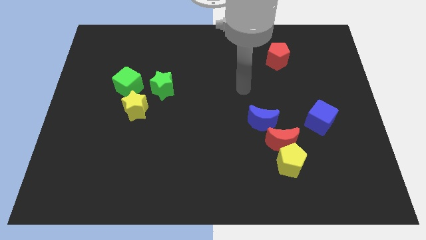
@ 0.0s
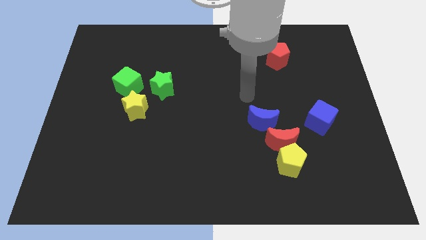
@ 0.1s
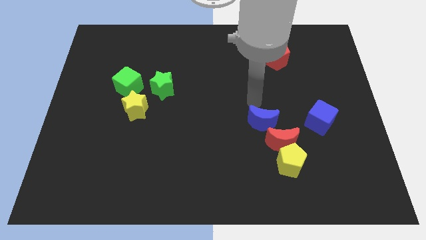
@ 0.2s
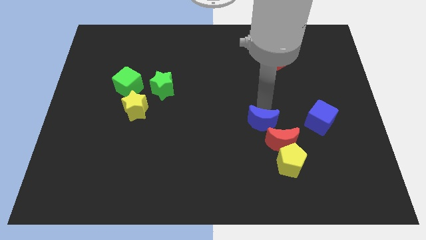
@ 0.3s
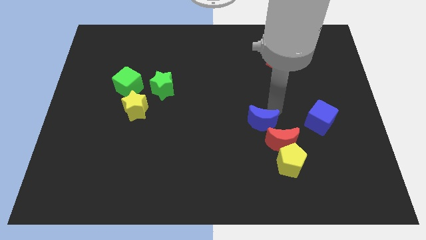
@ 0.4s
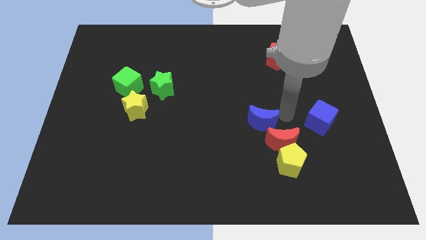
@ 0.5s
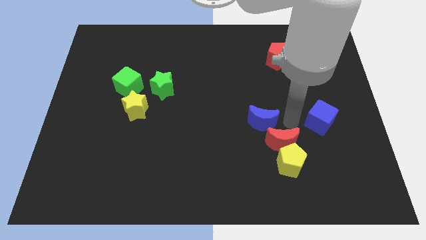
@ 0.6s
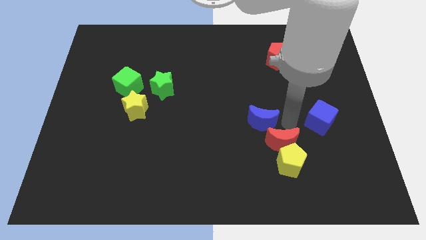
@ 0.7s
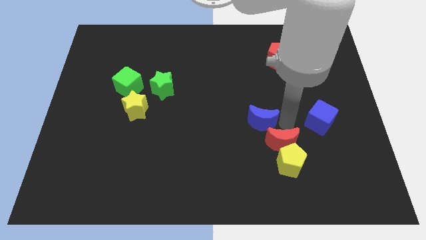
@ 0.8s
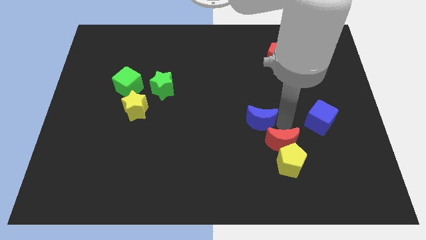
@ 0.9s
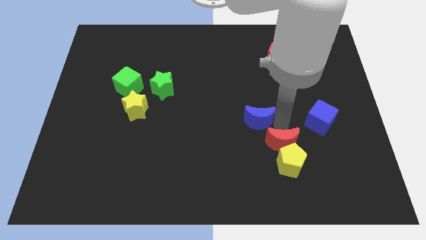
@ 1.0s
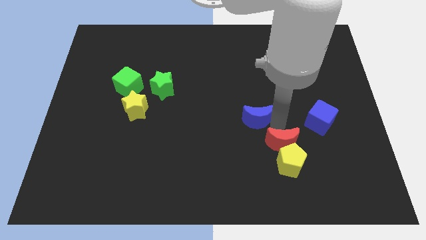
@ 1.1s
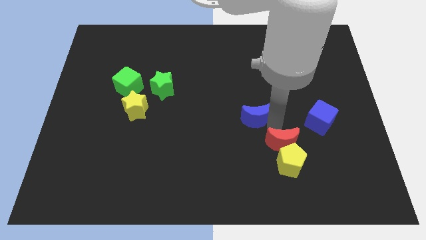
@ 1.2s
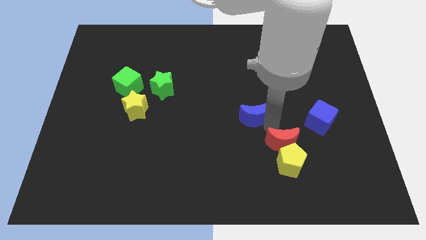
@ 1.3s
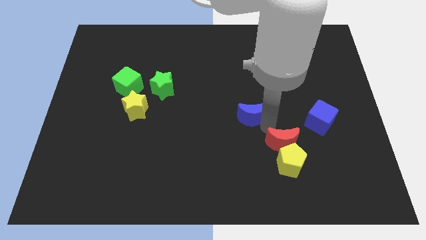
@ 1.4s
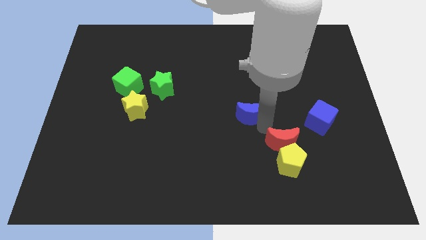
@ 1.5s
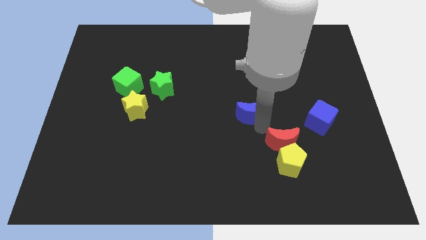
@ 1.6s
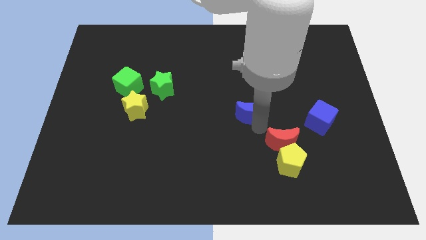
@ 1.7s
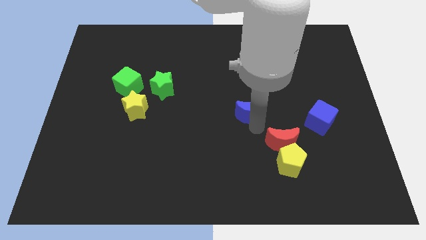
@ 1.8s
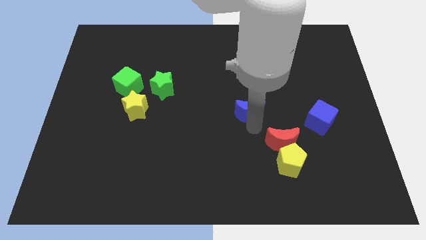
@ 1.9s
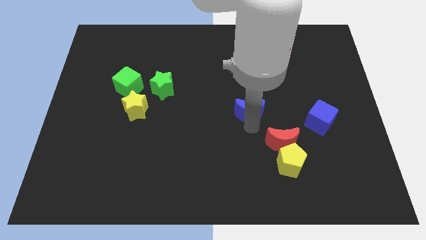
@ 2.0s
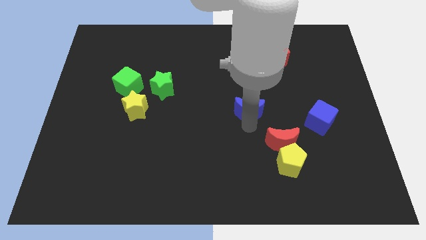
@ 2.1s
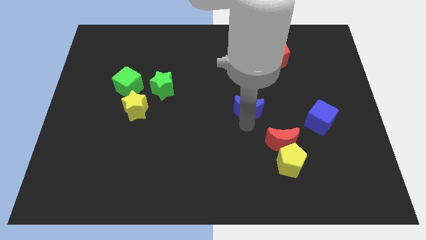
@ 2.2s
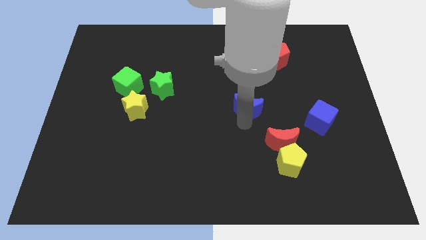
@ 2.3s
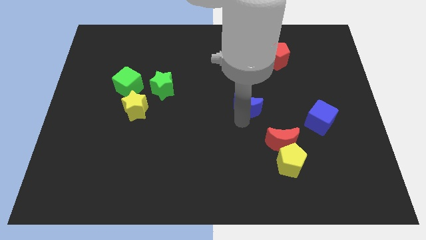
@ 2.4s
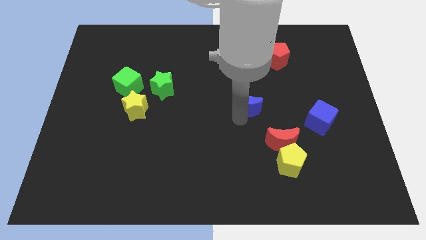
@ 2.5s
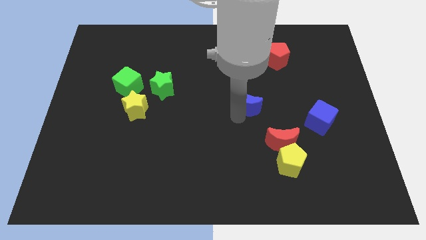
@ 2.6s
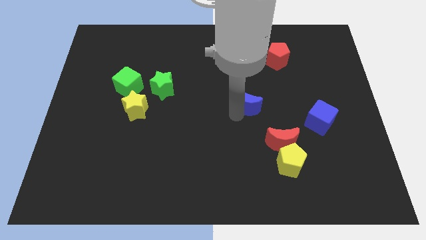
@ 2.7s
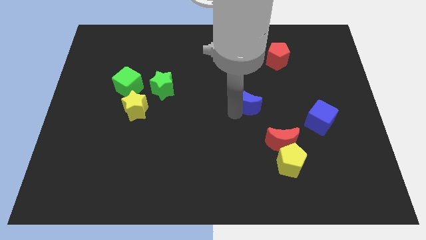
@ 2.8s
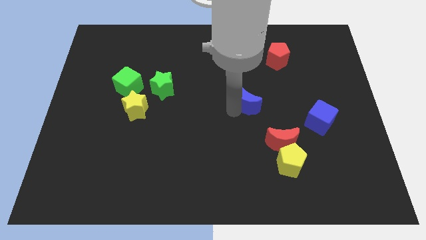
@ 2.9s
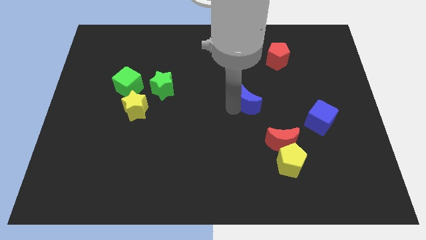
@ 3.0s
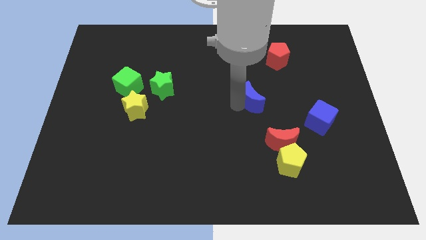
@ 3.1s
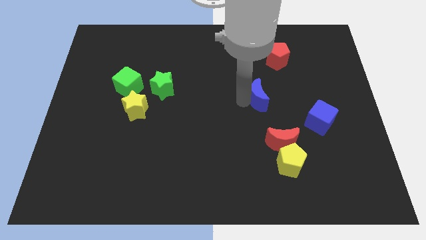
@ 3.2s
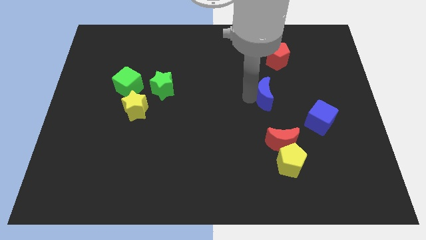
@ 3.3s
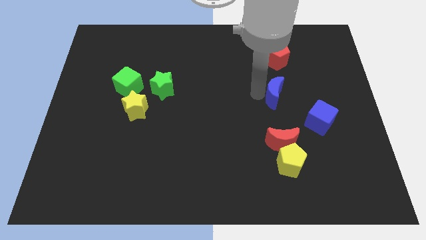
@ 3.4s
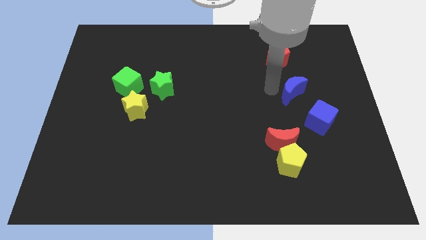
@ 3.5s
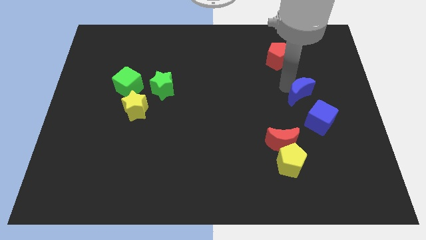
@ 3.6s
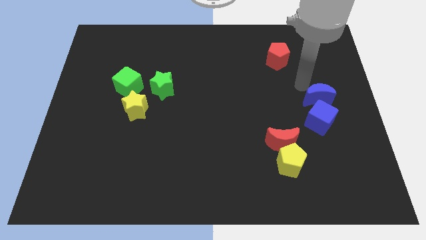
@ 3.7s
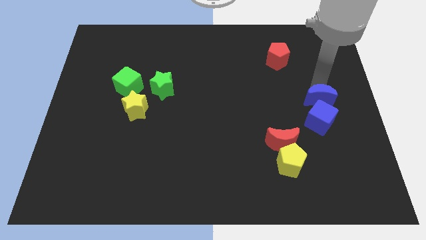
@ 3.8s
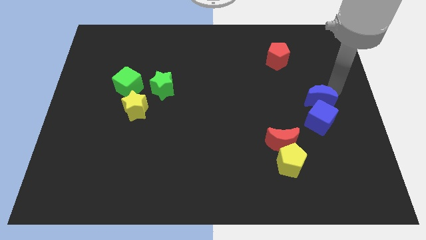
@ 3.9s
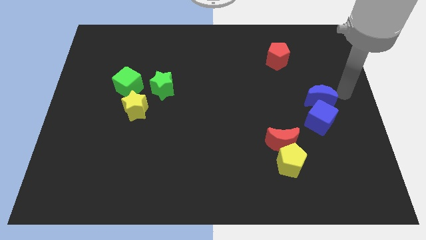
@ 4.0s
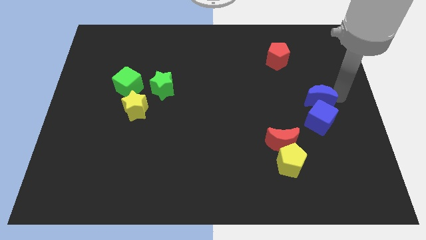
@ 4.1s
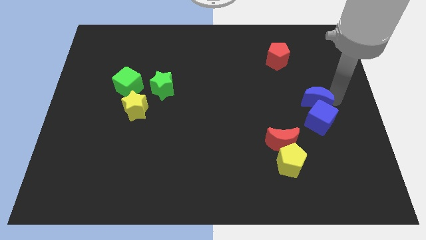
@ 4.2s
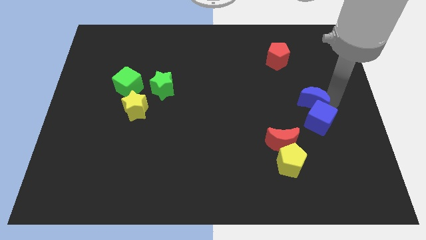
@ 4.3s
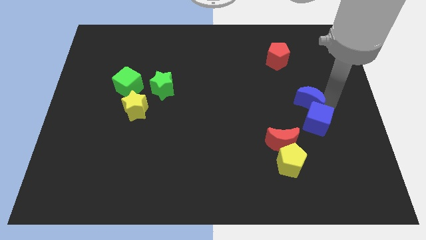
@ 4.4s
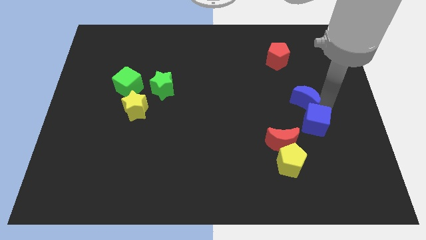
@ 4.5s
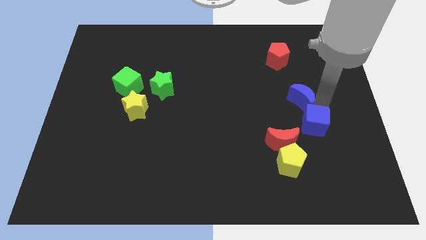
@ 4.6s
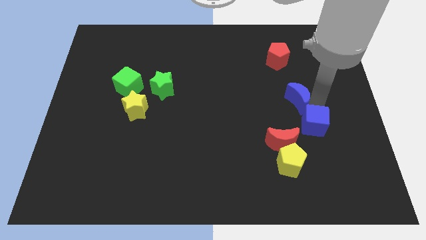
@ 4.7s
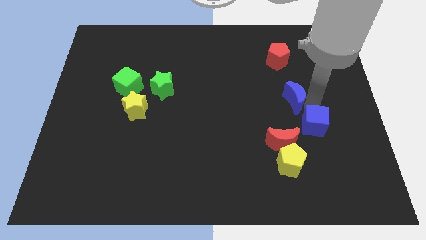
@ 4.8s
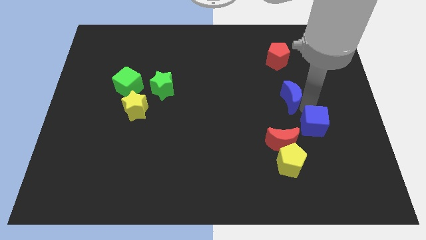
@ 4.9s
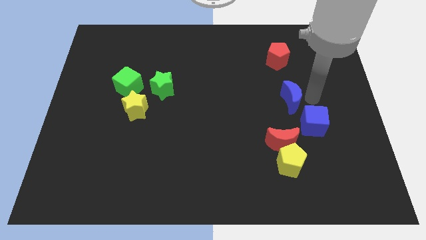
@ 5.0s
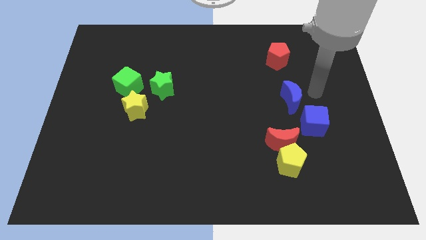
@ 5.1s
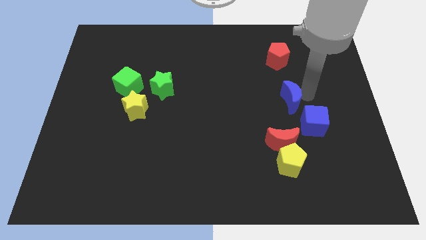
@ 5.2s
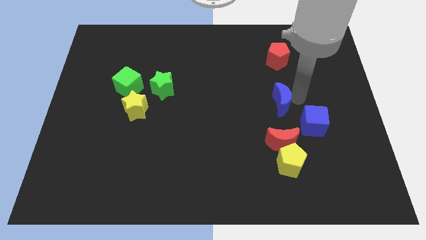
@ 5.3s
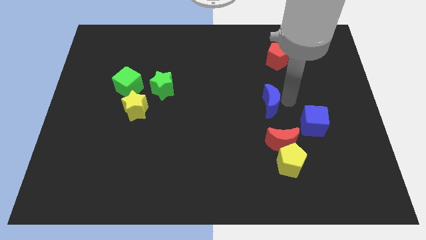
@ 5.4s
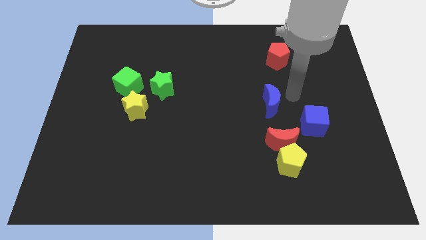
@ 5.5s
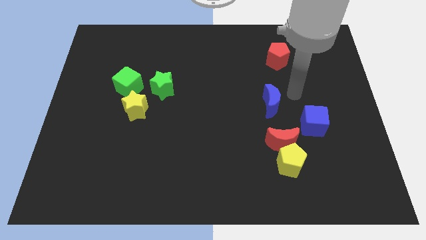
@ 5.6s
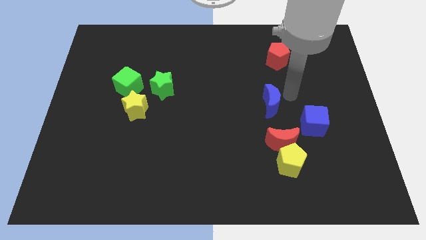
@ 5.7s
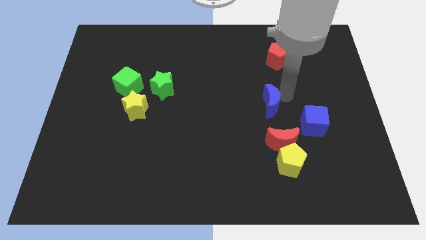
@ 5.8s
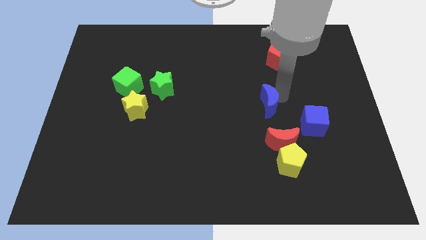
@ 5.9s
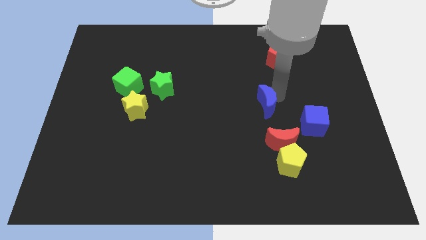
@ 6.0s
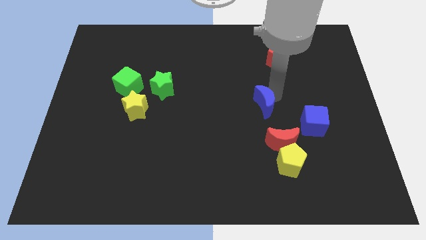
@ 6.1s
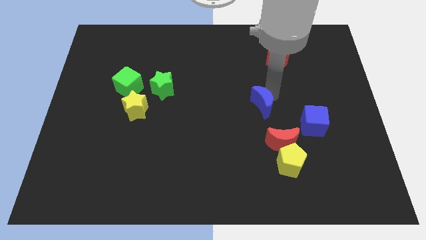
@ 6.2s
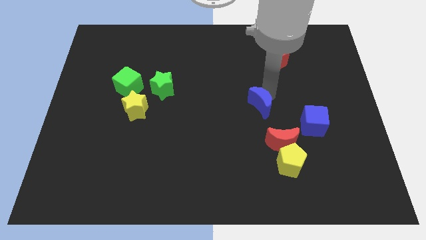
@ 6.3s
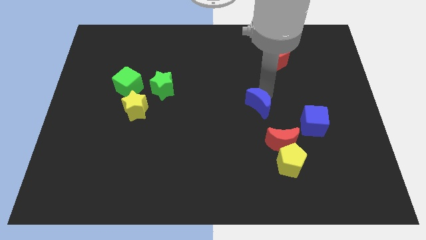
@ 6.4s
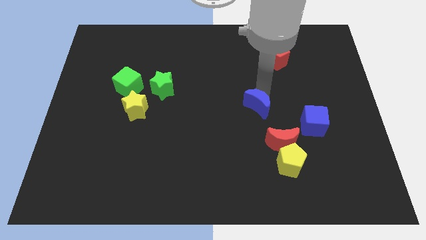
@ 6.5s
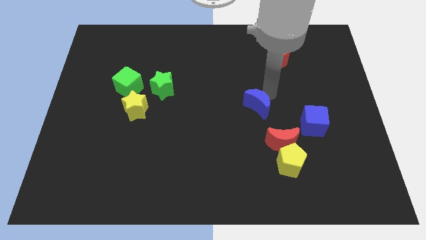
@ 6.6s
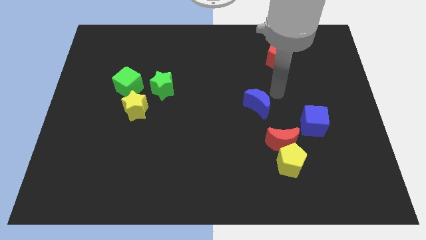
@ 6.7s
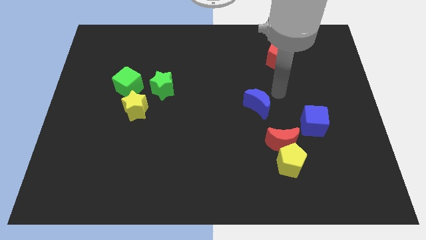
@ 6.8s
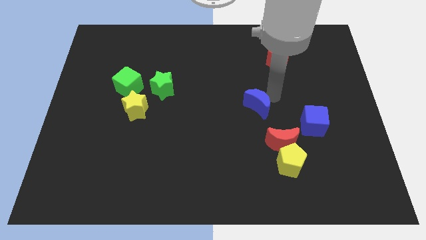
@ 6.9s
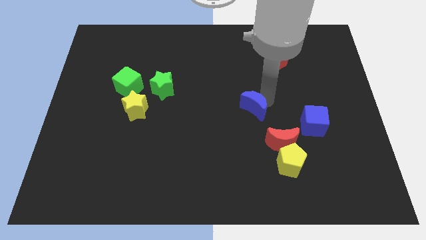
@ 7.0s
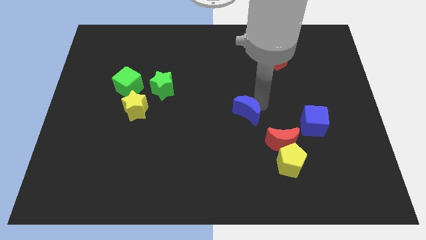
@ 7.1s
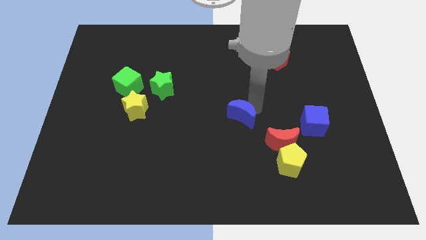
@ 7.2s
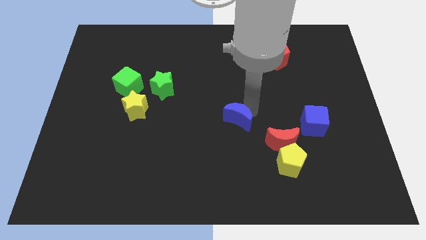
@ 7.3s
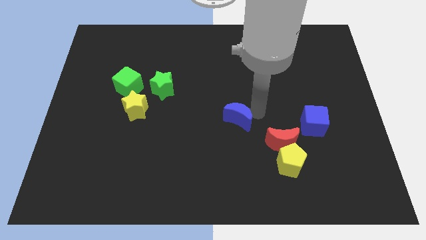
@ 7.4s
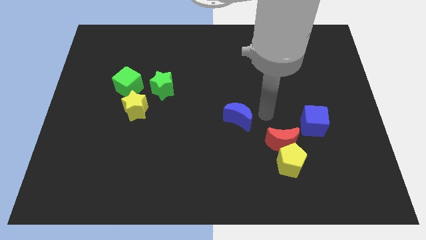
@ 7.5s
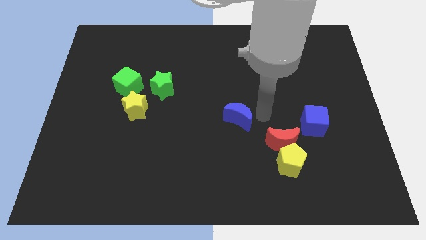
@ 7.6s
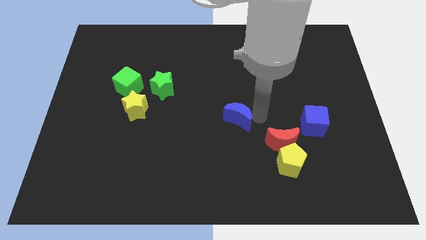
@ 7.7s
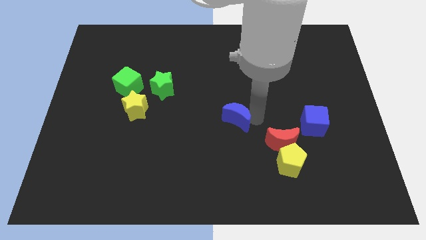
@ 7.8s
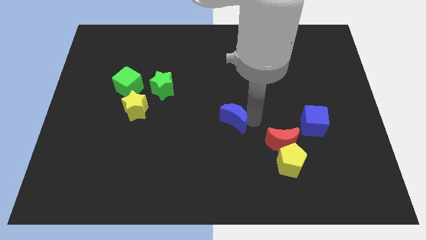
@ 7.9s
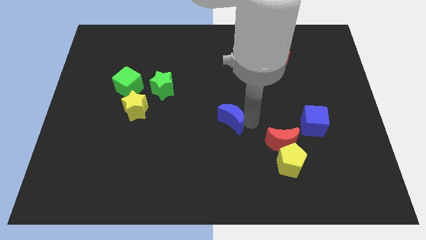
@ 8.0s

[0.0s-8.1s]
slightly slide the blue moon left
